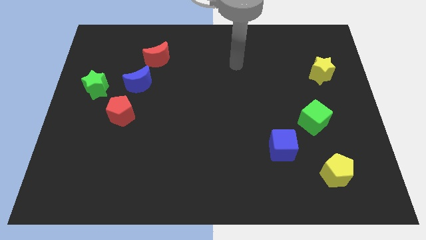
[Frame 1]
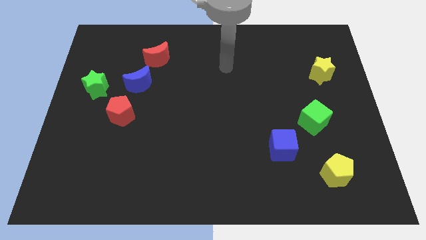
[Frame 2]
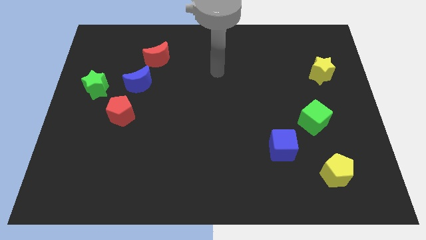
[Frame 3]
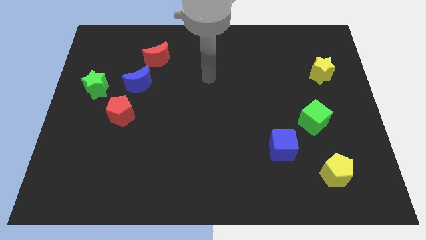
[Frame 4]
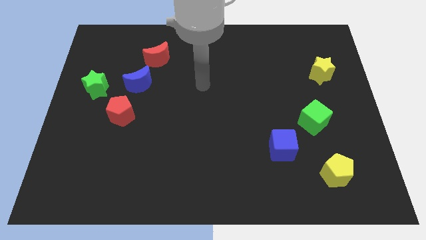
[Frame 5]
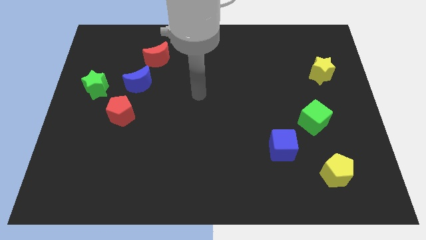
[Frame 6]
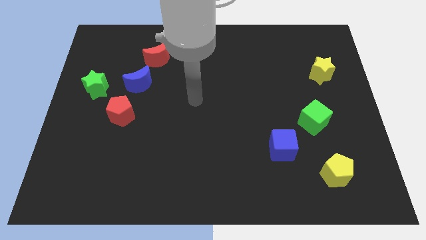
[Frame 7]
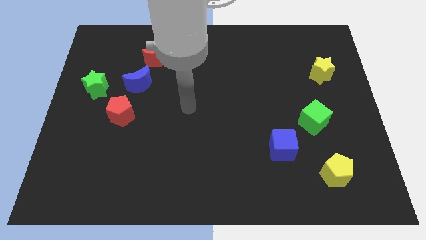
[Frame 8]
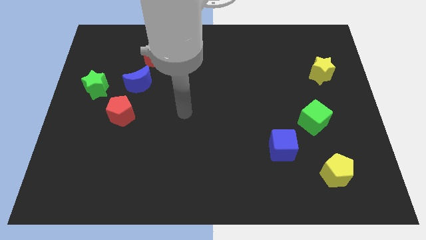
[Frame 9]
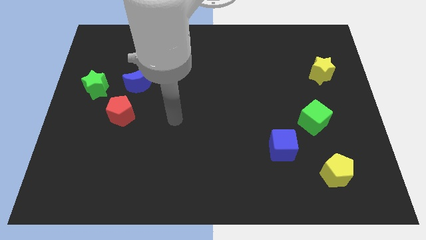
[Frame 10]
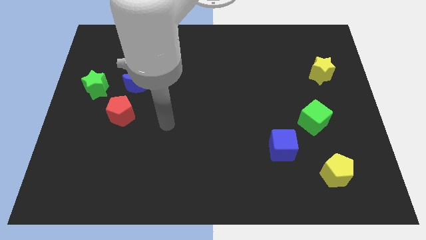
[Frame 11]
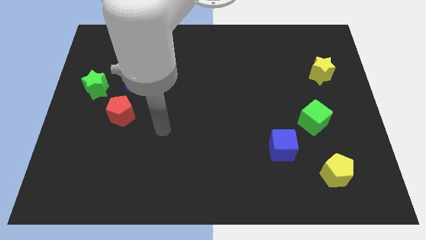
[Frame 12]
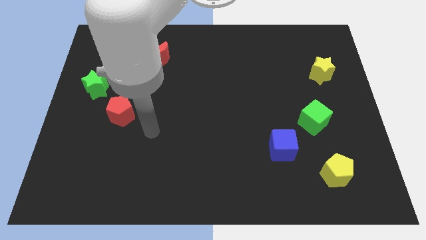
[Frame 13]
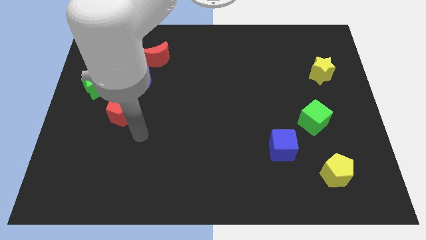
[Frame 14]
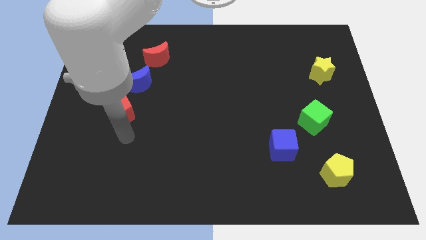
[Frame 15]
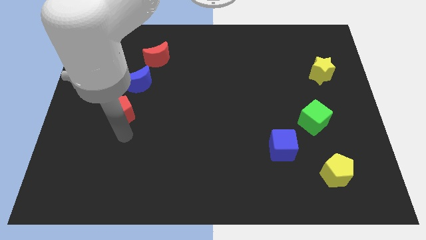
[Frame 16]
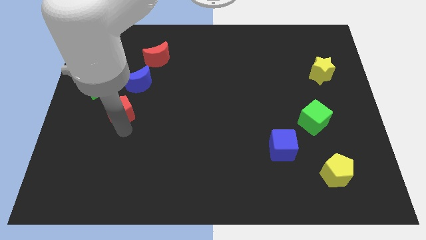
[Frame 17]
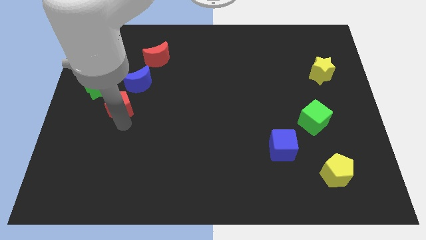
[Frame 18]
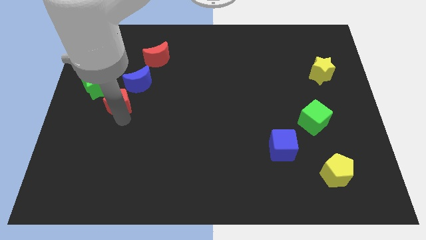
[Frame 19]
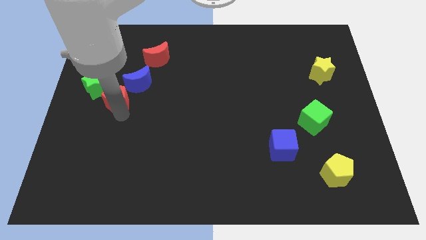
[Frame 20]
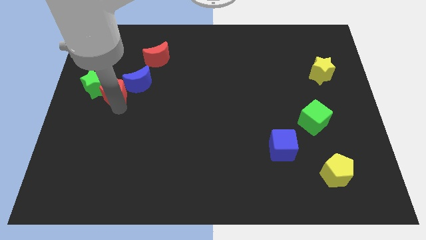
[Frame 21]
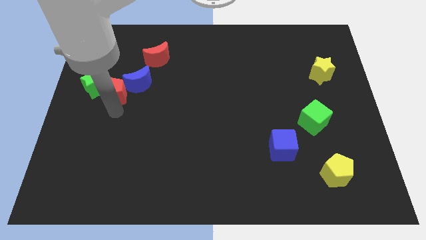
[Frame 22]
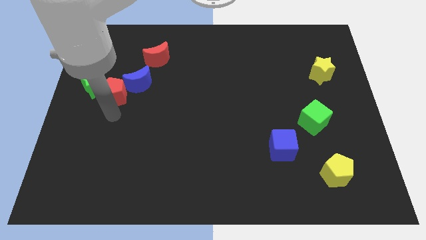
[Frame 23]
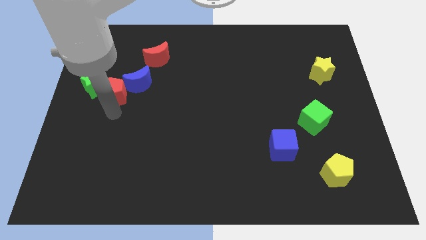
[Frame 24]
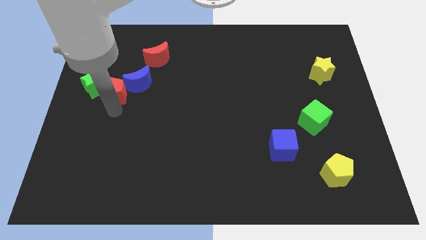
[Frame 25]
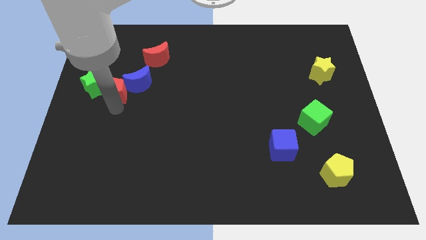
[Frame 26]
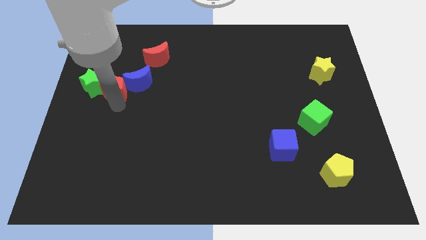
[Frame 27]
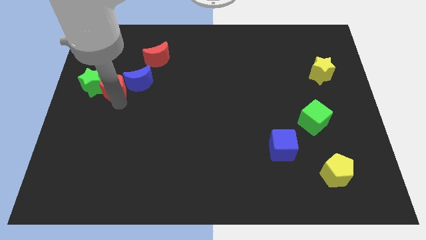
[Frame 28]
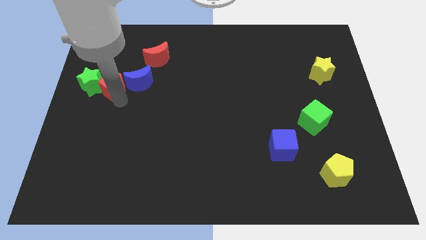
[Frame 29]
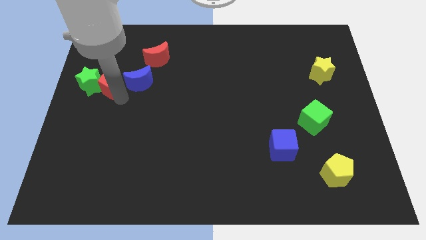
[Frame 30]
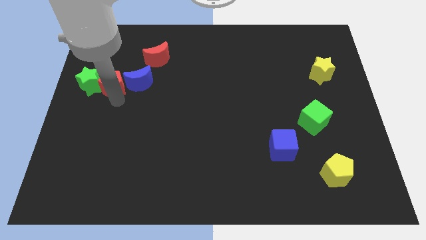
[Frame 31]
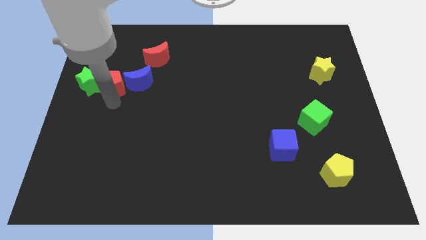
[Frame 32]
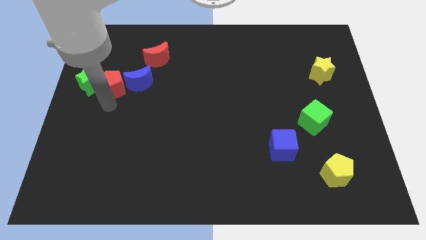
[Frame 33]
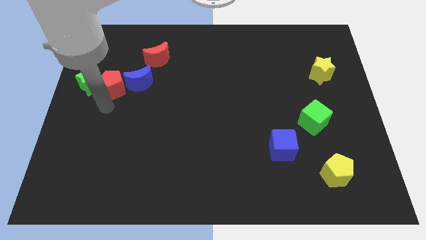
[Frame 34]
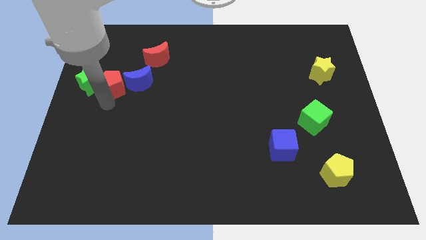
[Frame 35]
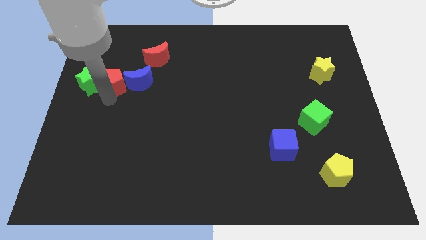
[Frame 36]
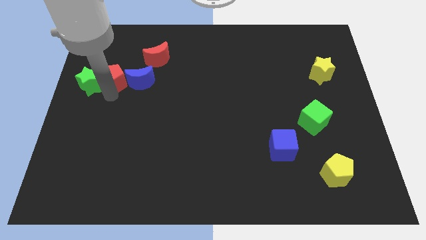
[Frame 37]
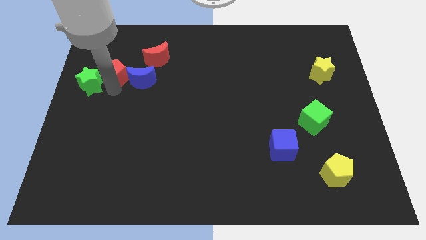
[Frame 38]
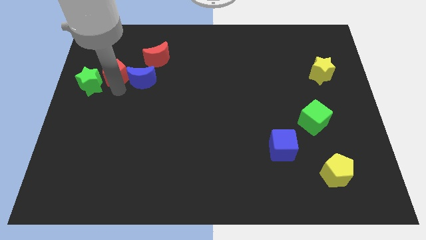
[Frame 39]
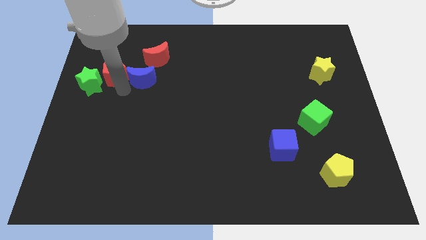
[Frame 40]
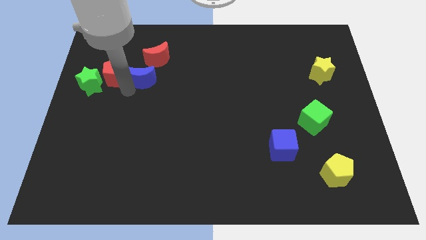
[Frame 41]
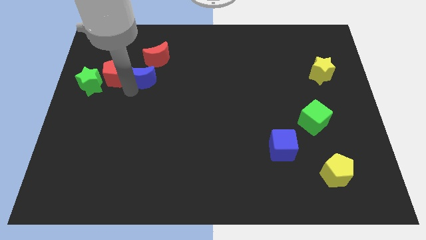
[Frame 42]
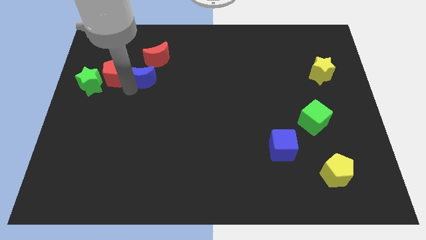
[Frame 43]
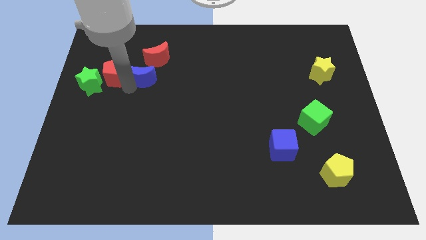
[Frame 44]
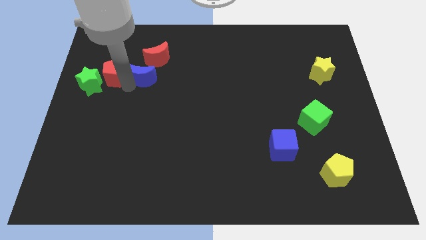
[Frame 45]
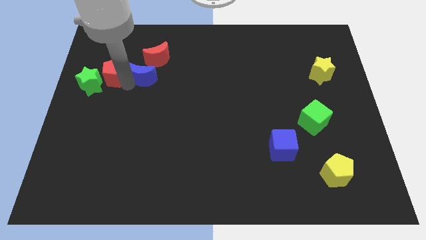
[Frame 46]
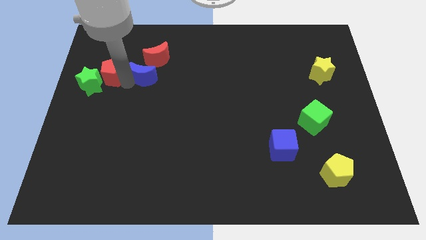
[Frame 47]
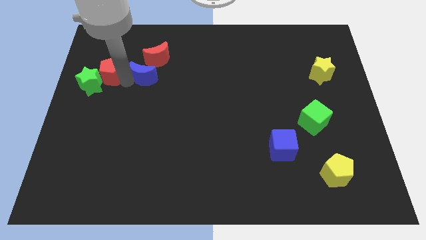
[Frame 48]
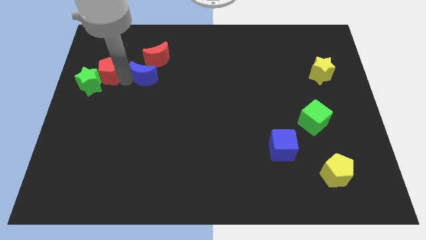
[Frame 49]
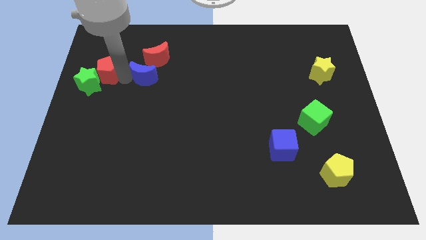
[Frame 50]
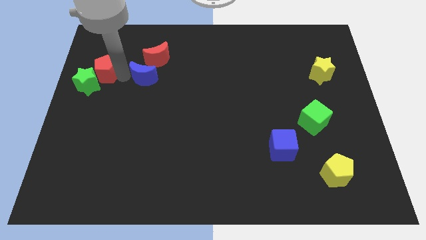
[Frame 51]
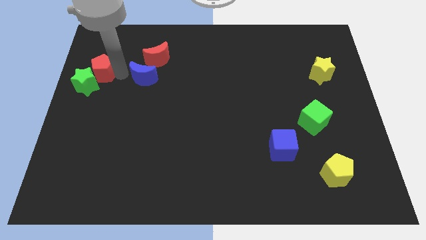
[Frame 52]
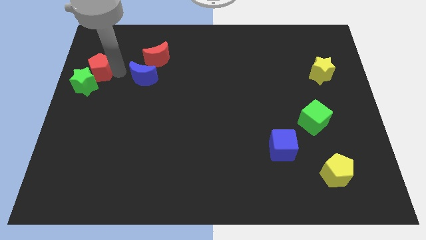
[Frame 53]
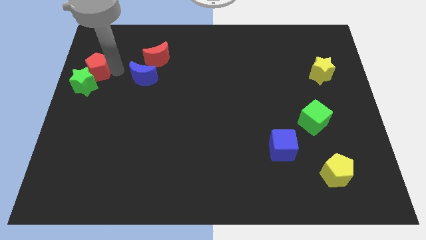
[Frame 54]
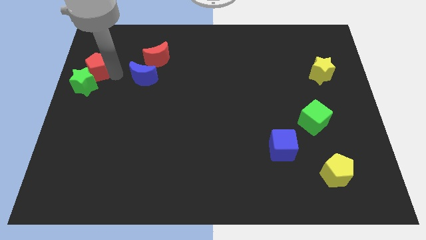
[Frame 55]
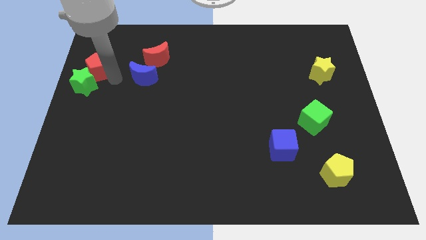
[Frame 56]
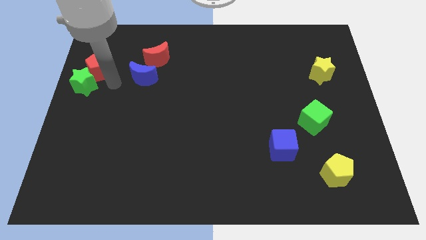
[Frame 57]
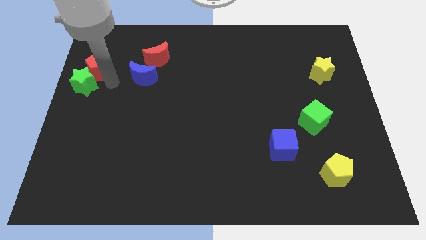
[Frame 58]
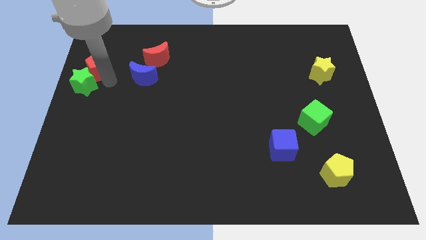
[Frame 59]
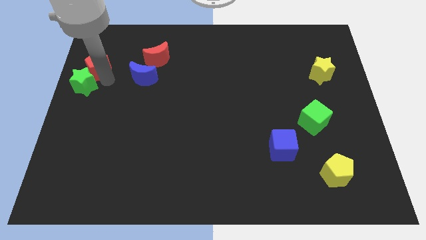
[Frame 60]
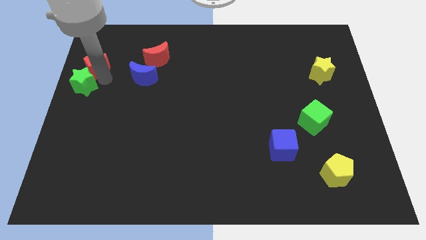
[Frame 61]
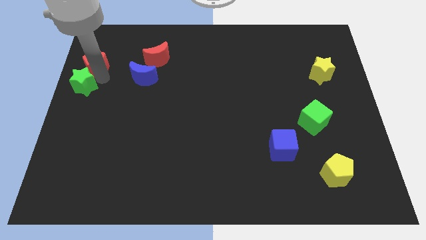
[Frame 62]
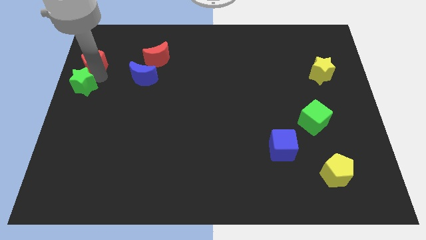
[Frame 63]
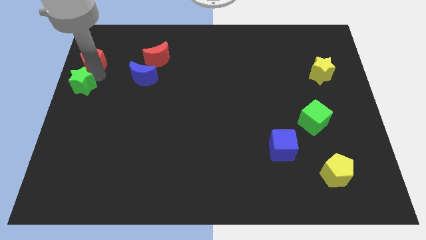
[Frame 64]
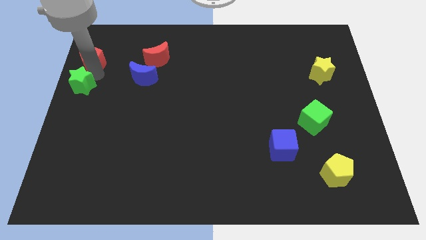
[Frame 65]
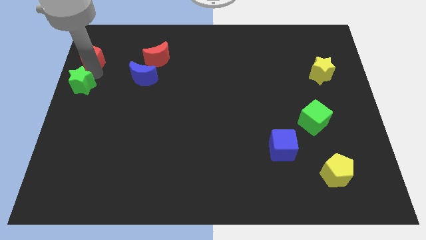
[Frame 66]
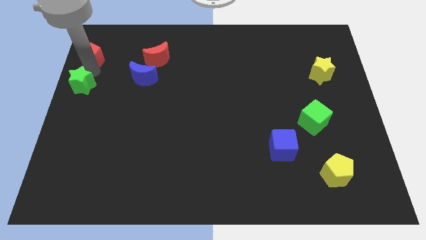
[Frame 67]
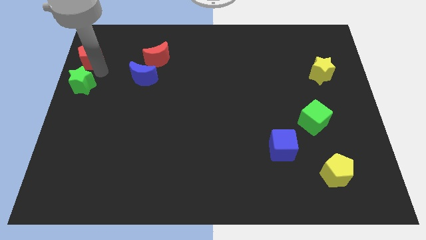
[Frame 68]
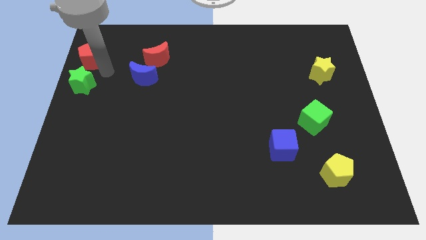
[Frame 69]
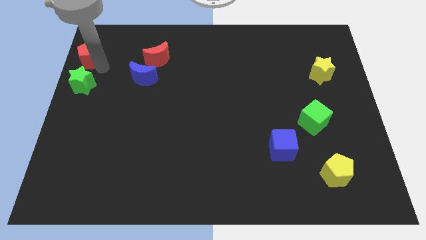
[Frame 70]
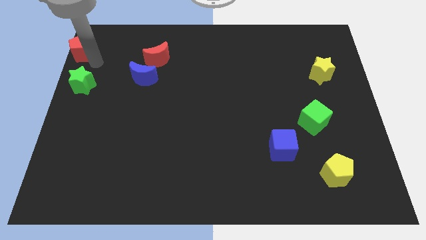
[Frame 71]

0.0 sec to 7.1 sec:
move the red pentagon to the top left
